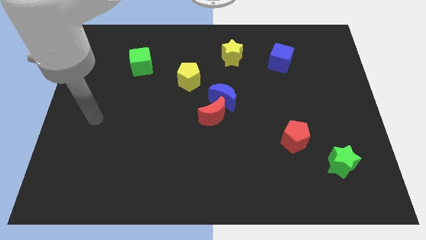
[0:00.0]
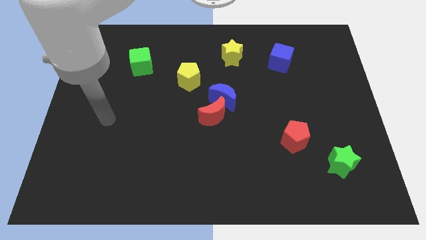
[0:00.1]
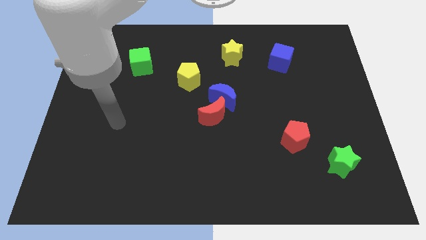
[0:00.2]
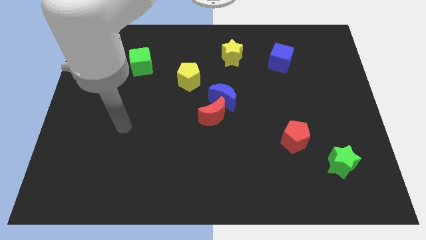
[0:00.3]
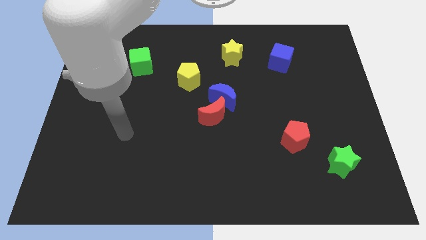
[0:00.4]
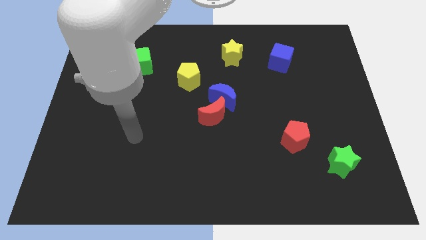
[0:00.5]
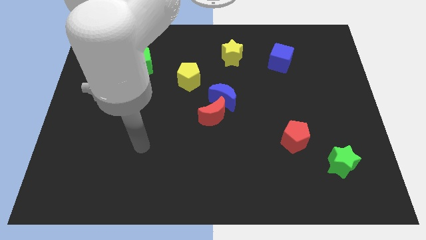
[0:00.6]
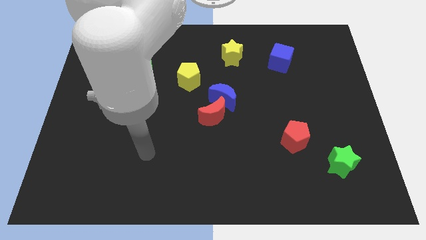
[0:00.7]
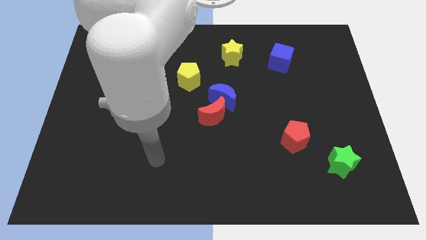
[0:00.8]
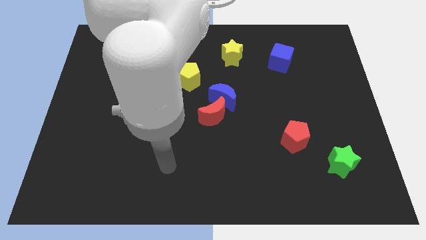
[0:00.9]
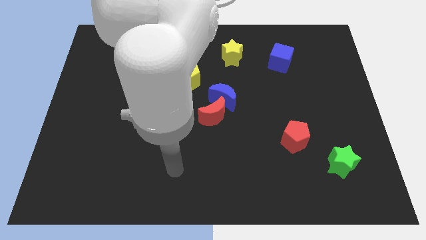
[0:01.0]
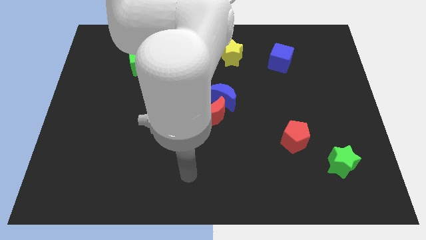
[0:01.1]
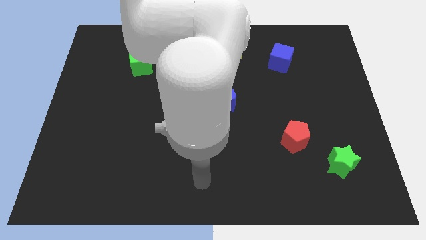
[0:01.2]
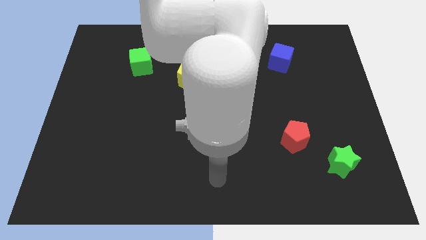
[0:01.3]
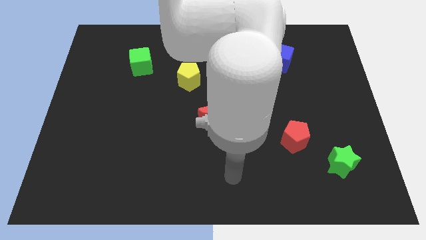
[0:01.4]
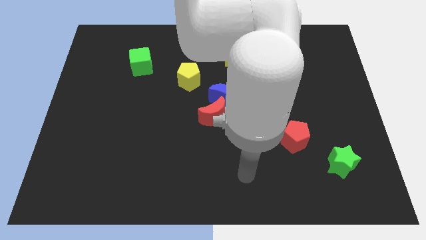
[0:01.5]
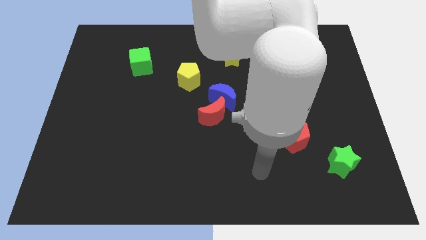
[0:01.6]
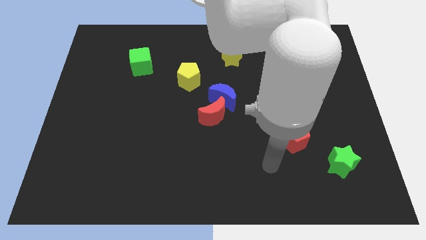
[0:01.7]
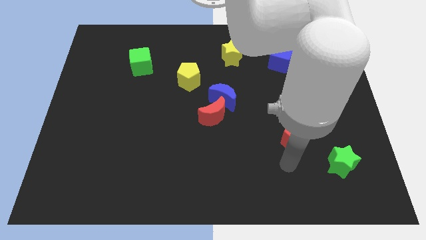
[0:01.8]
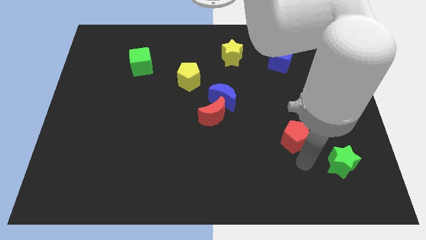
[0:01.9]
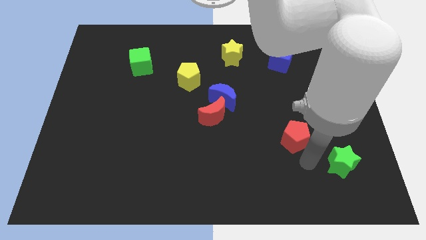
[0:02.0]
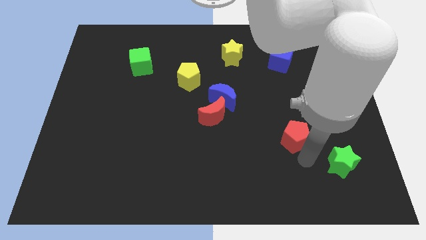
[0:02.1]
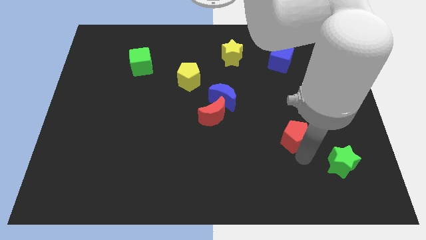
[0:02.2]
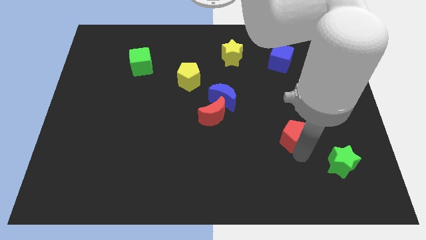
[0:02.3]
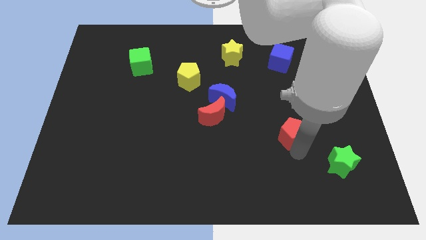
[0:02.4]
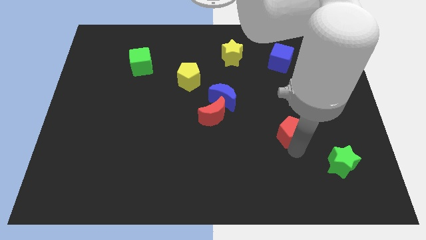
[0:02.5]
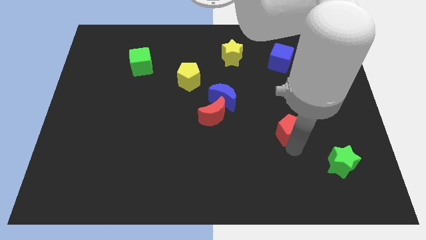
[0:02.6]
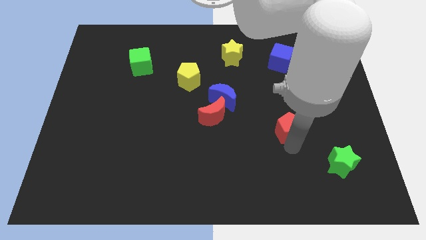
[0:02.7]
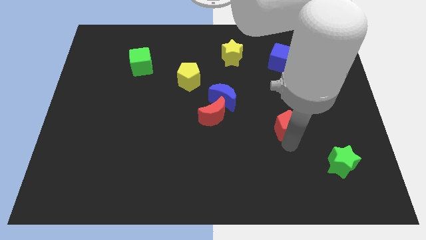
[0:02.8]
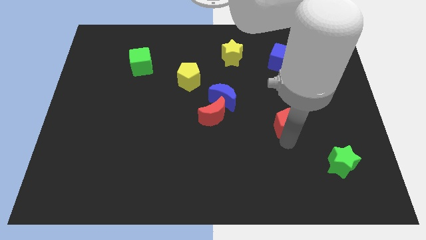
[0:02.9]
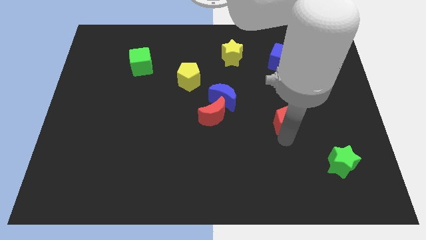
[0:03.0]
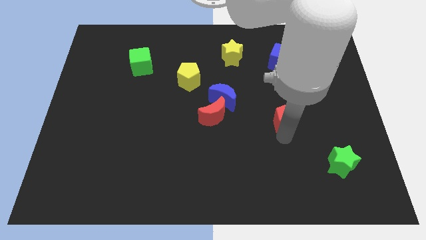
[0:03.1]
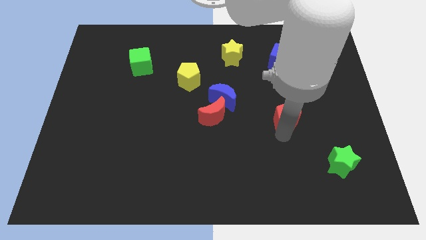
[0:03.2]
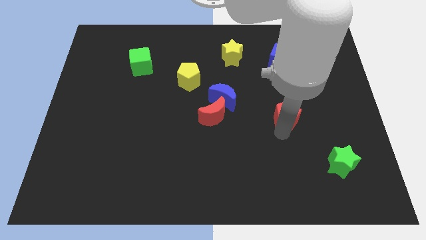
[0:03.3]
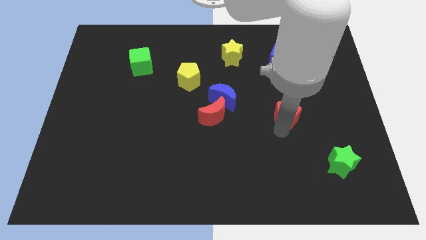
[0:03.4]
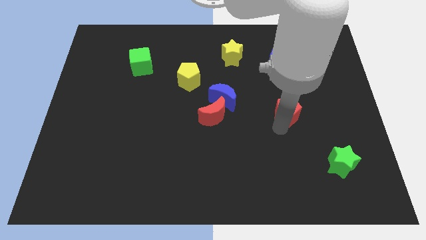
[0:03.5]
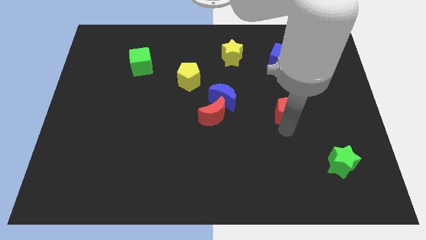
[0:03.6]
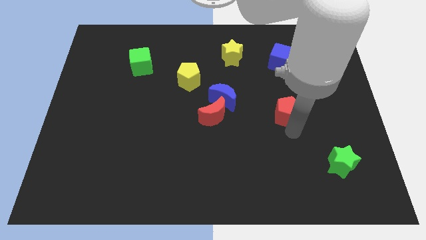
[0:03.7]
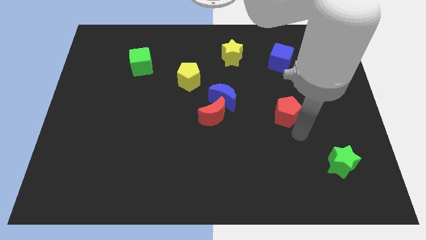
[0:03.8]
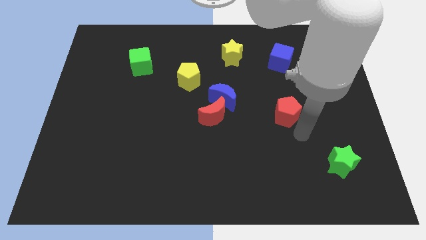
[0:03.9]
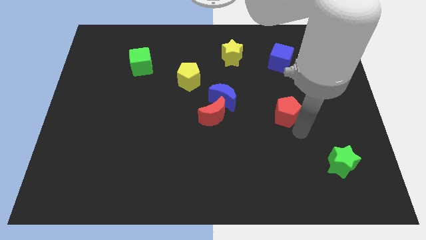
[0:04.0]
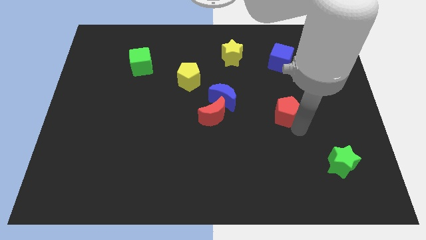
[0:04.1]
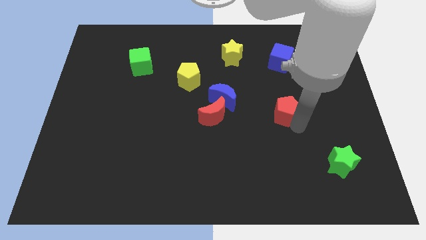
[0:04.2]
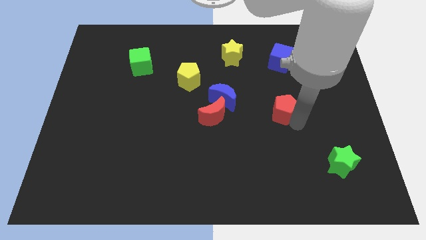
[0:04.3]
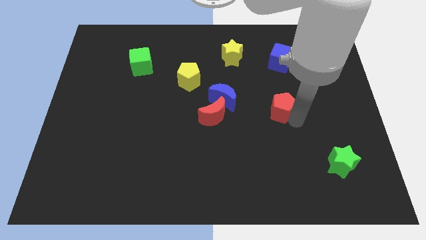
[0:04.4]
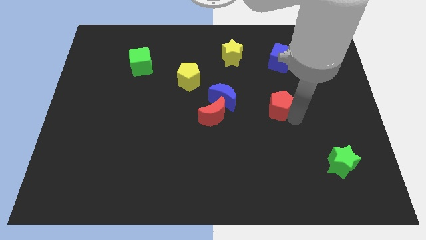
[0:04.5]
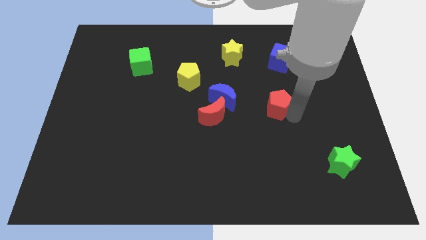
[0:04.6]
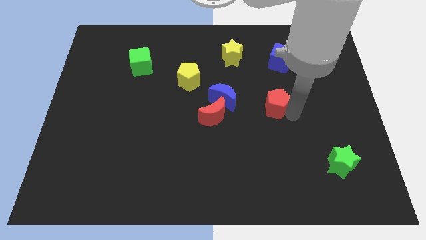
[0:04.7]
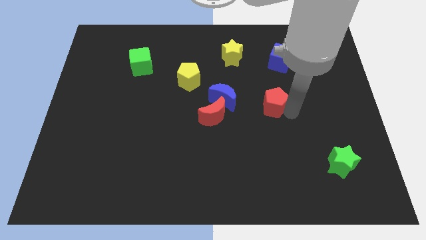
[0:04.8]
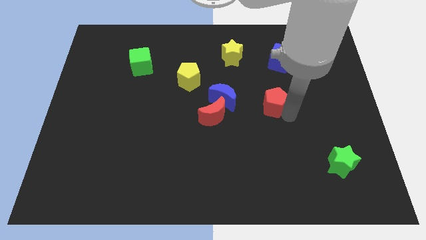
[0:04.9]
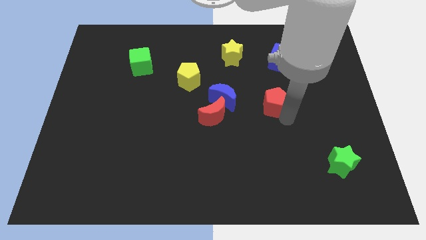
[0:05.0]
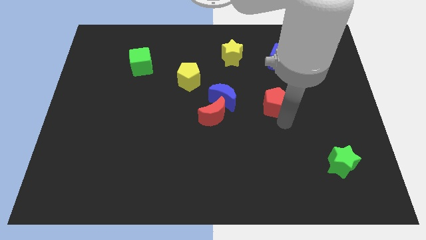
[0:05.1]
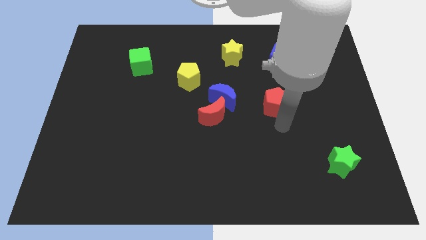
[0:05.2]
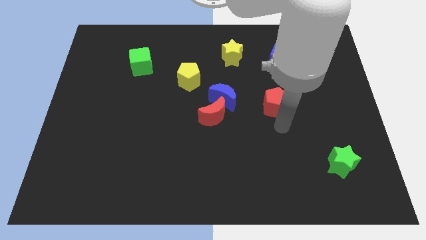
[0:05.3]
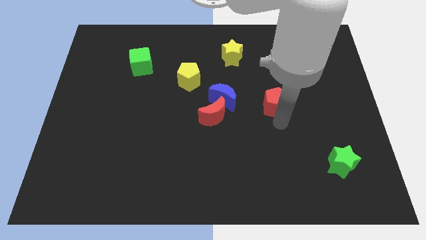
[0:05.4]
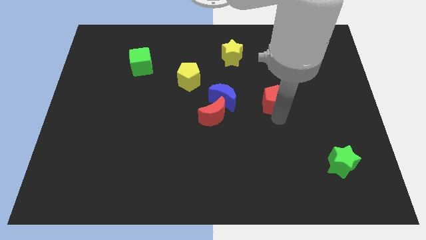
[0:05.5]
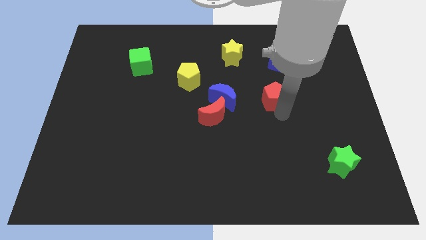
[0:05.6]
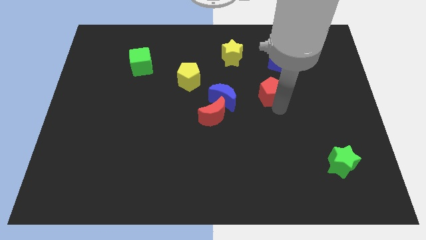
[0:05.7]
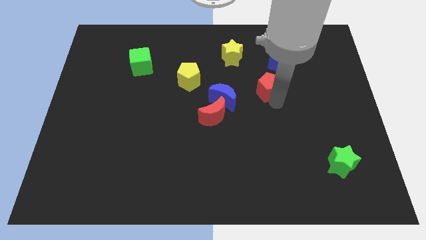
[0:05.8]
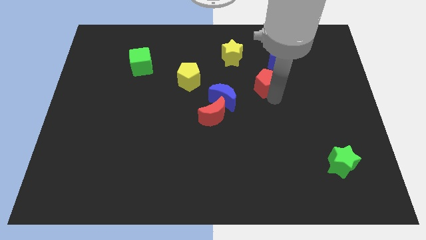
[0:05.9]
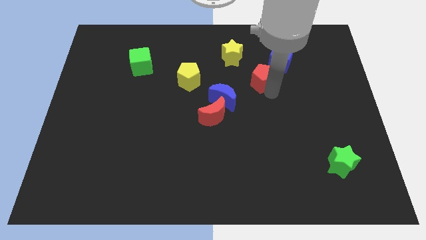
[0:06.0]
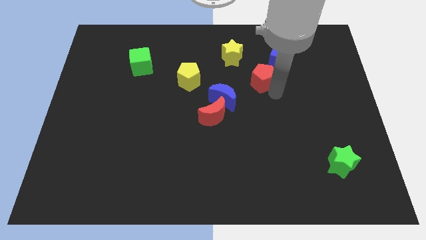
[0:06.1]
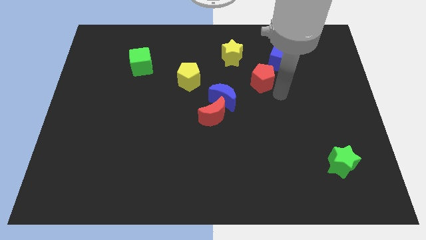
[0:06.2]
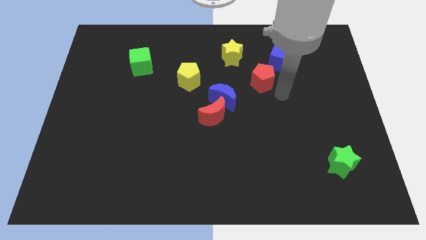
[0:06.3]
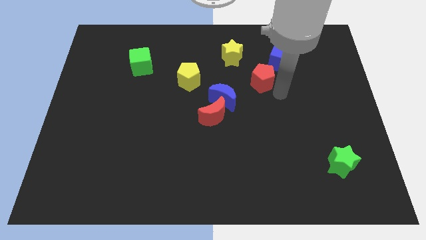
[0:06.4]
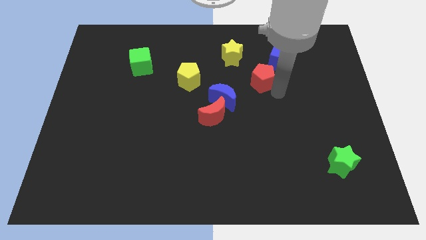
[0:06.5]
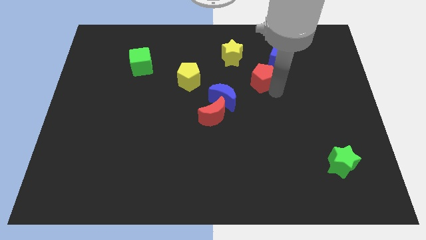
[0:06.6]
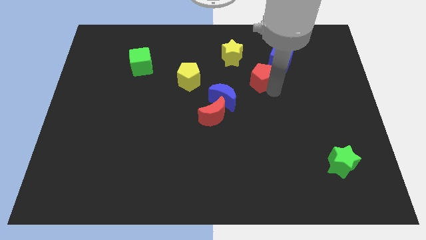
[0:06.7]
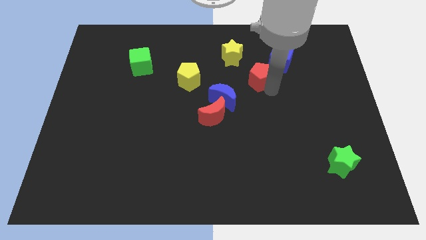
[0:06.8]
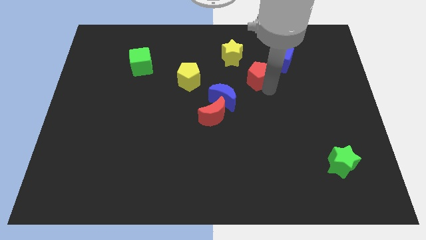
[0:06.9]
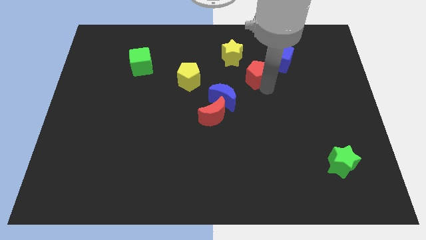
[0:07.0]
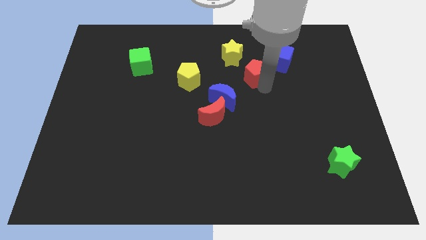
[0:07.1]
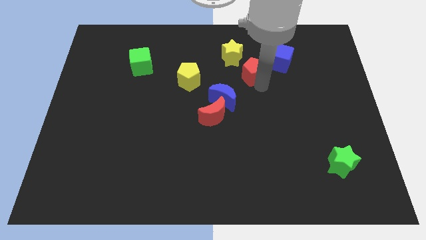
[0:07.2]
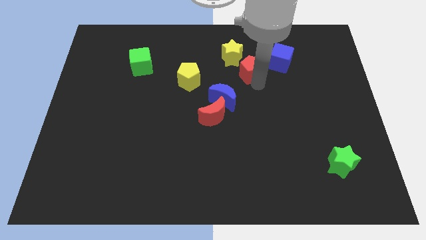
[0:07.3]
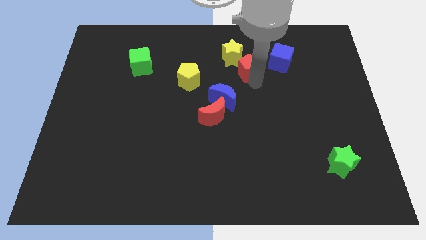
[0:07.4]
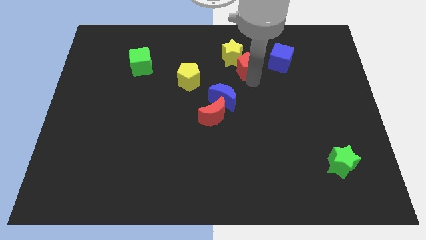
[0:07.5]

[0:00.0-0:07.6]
push the red pentagon next to the yellow star
